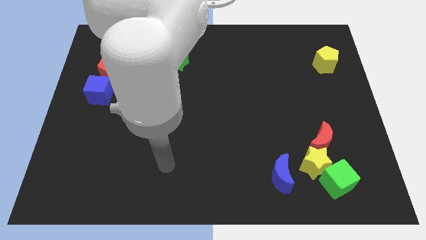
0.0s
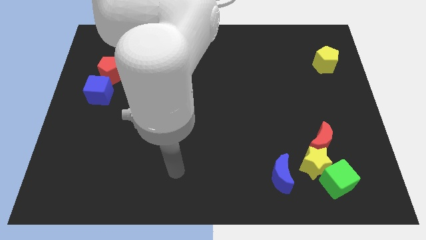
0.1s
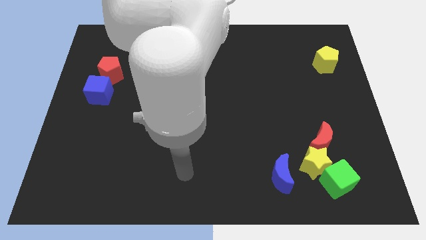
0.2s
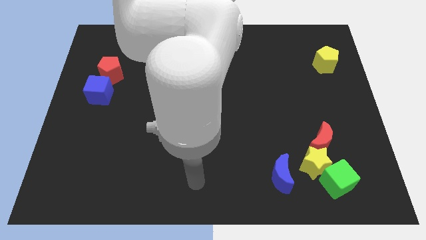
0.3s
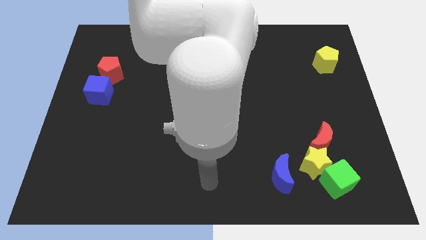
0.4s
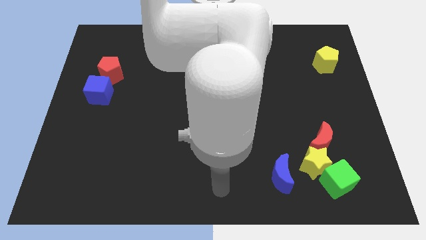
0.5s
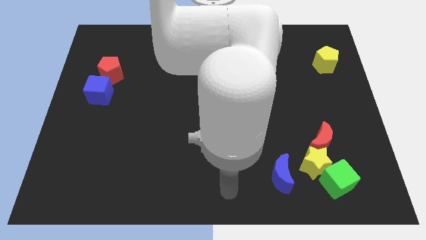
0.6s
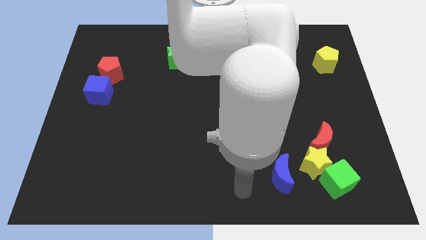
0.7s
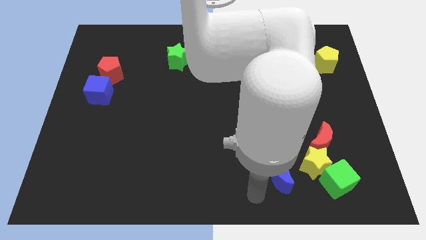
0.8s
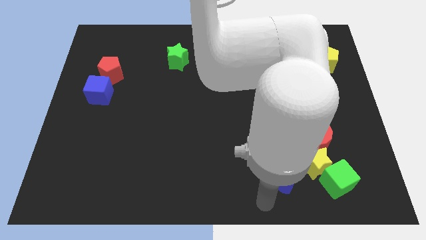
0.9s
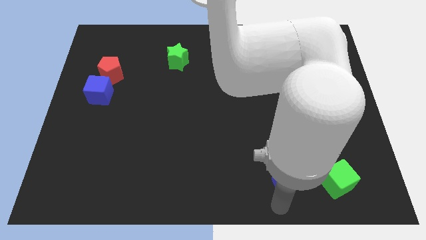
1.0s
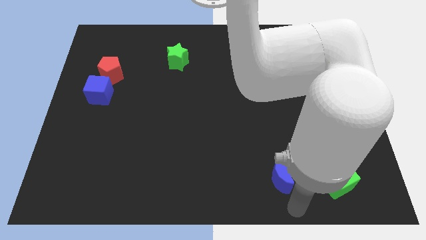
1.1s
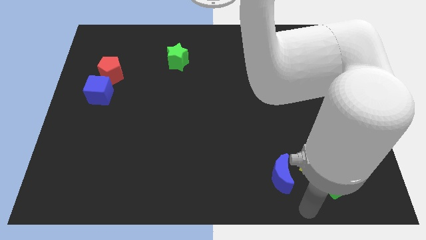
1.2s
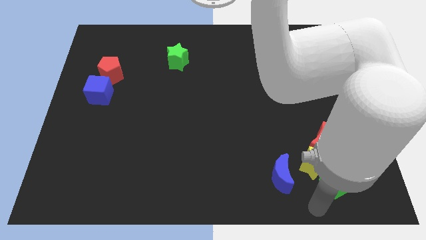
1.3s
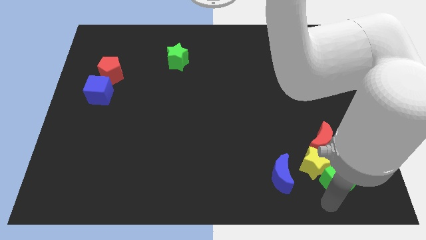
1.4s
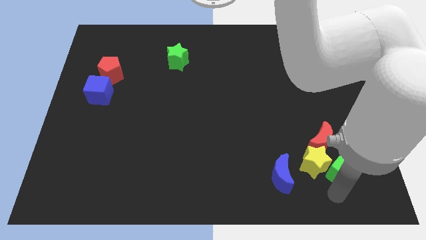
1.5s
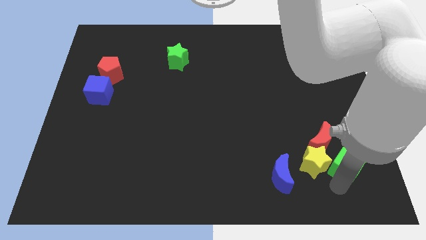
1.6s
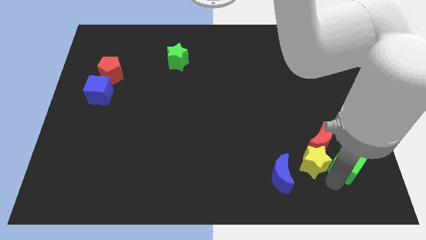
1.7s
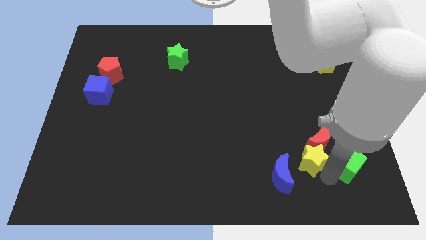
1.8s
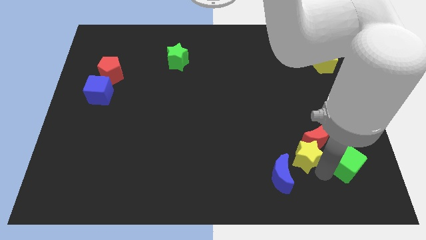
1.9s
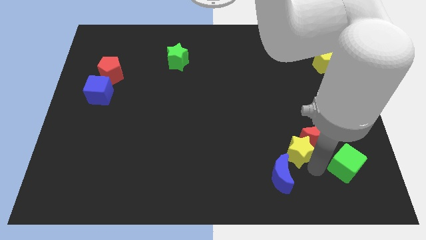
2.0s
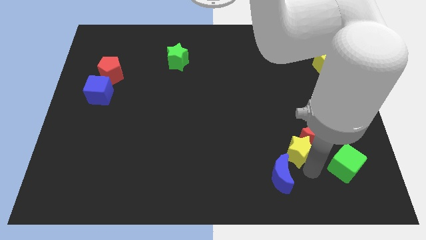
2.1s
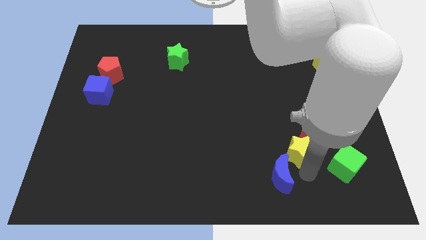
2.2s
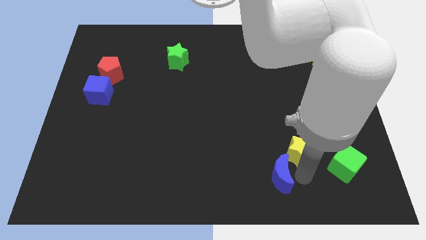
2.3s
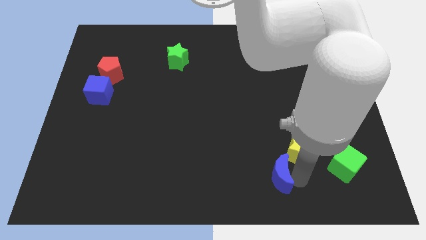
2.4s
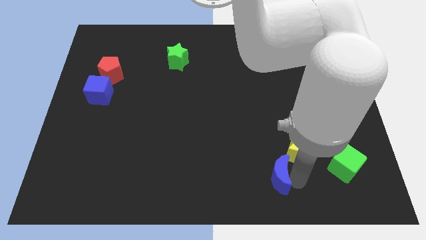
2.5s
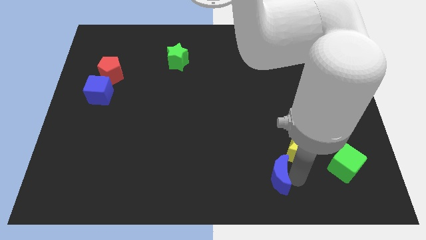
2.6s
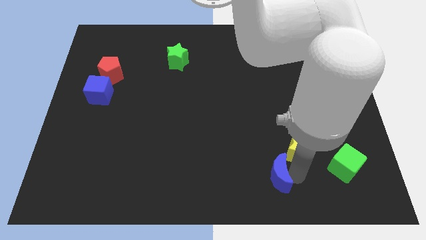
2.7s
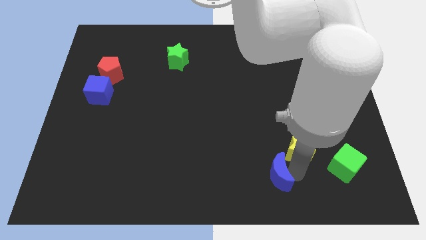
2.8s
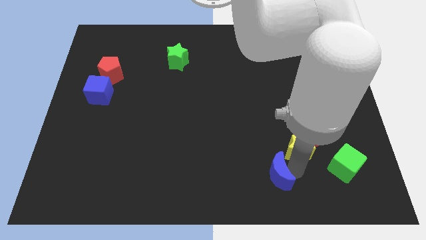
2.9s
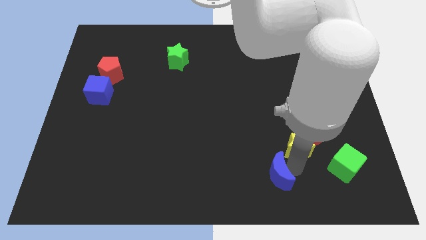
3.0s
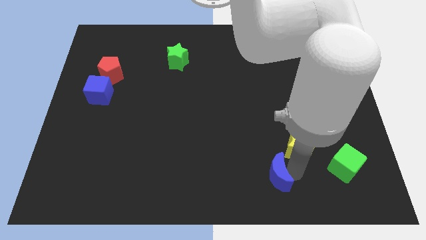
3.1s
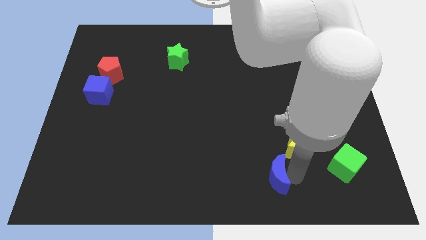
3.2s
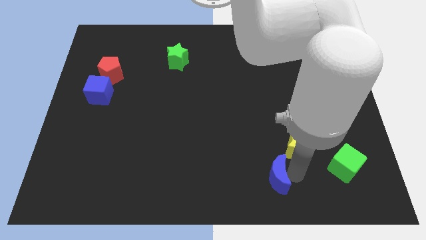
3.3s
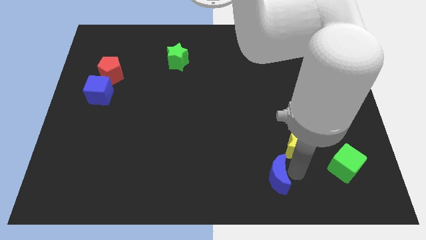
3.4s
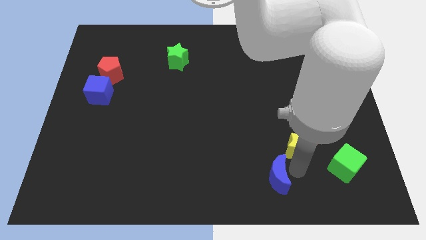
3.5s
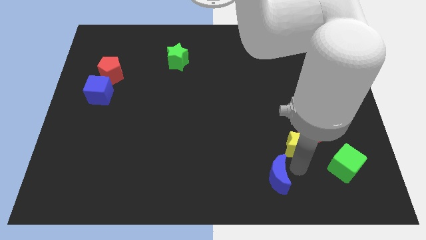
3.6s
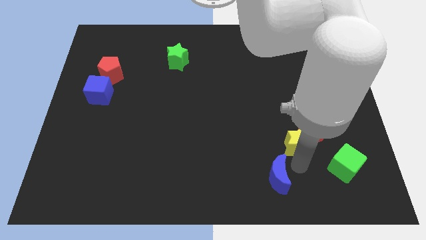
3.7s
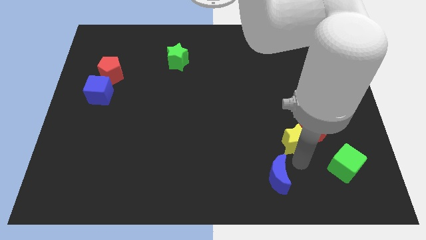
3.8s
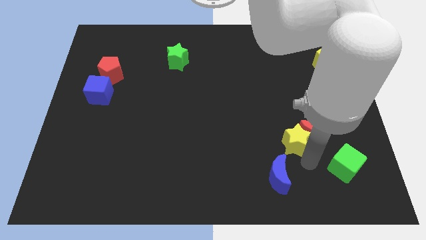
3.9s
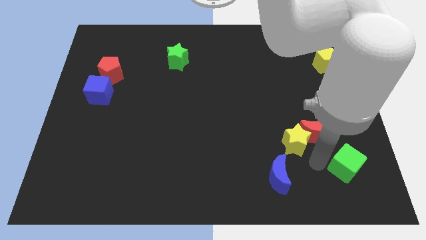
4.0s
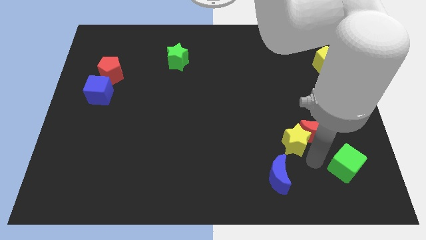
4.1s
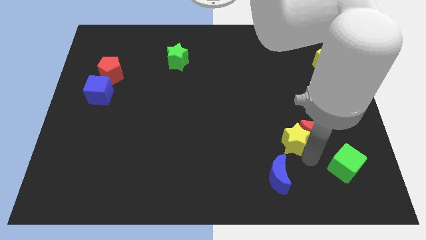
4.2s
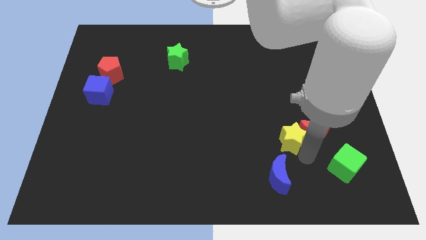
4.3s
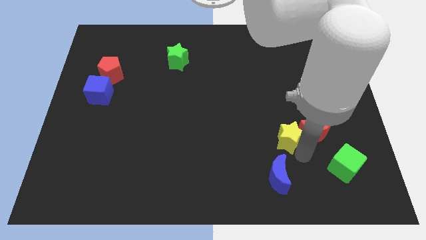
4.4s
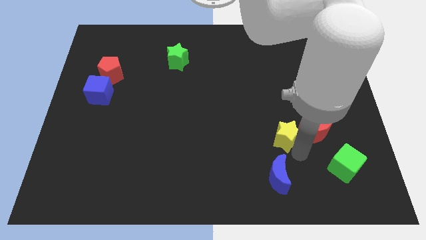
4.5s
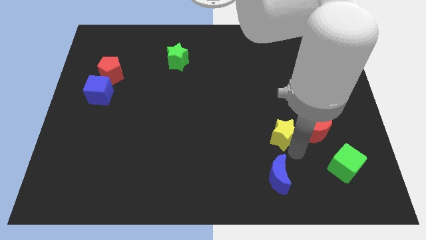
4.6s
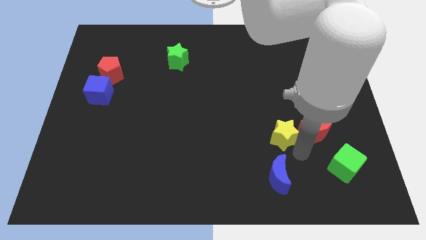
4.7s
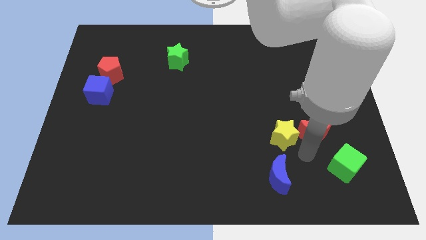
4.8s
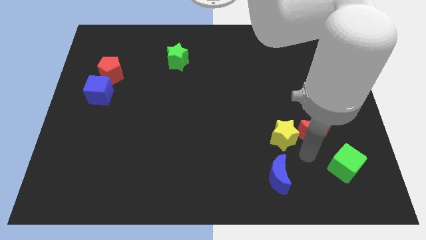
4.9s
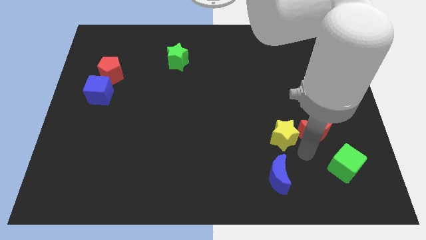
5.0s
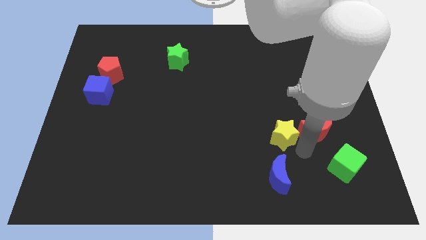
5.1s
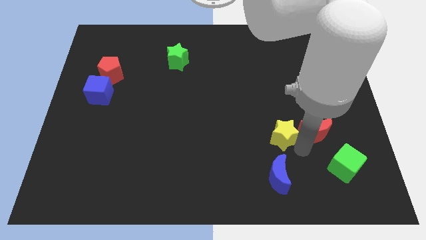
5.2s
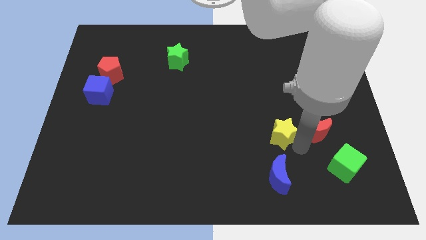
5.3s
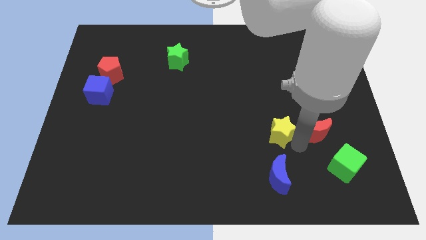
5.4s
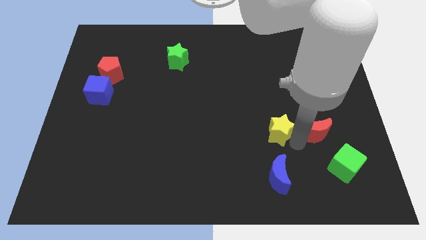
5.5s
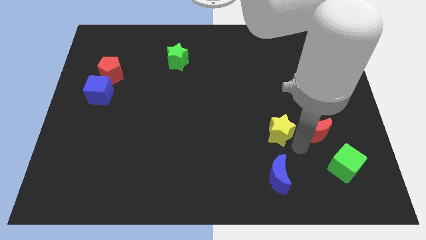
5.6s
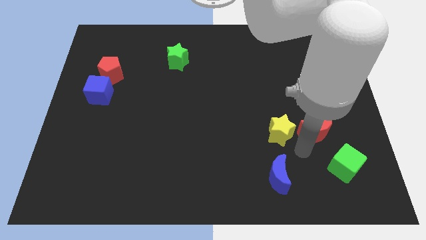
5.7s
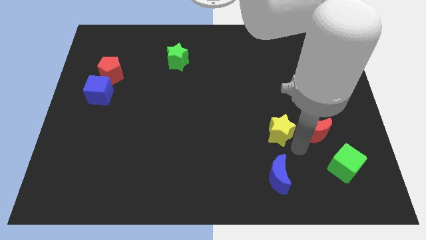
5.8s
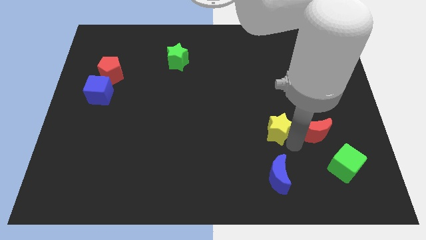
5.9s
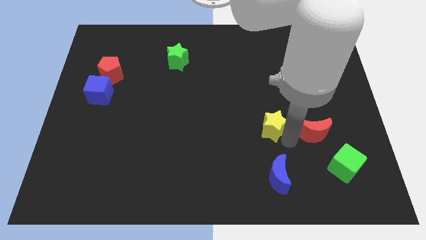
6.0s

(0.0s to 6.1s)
separate the yellow star from the group

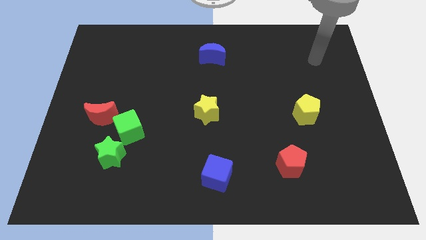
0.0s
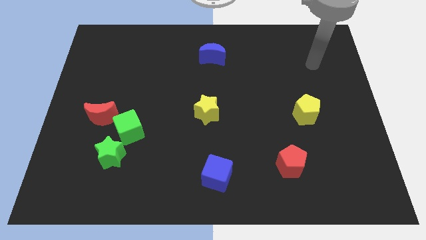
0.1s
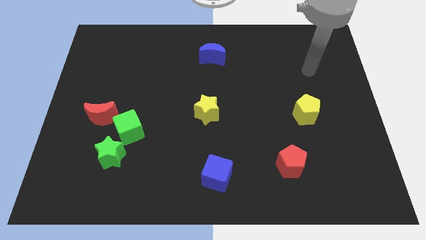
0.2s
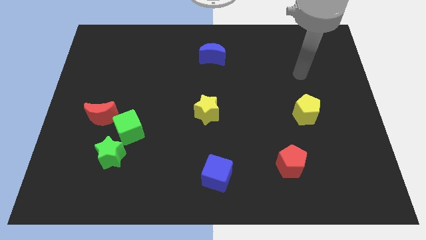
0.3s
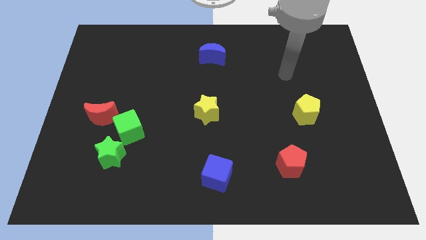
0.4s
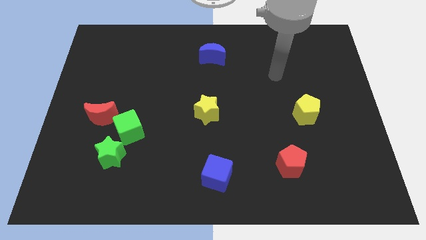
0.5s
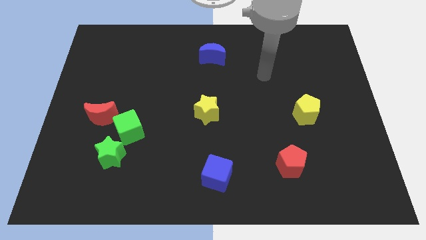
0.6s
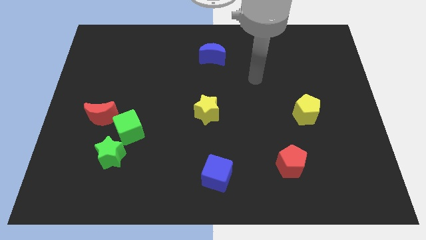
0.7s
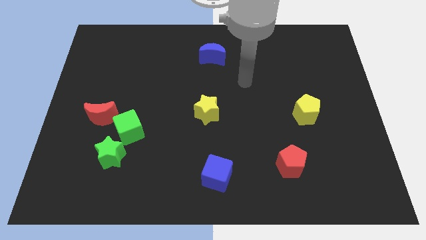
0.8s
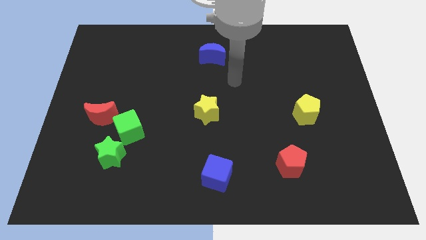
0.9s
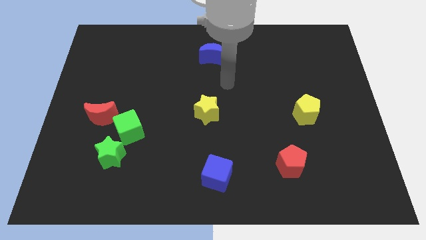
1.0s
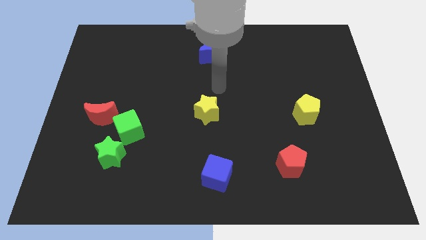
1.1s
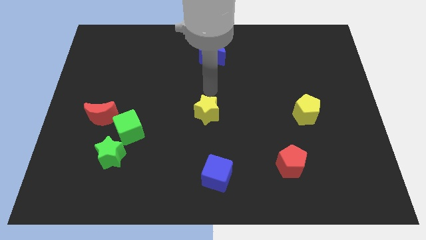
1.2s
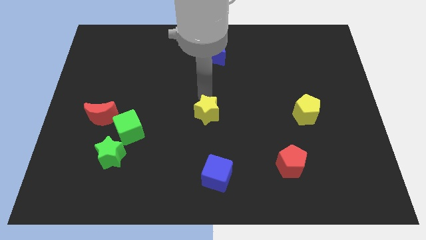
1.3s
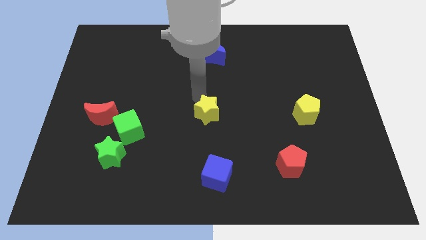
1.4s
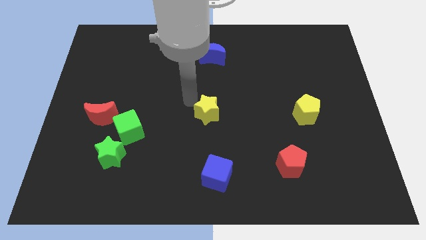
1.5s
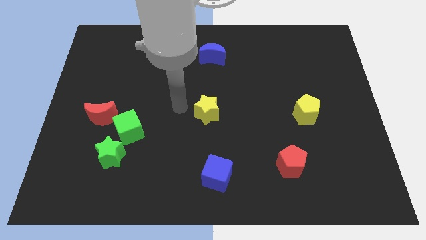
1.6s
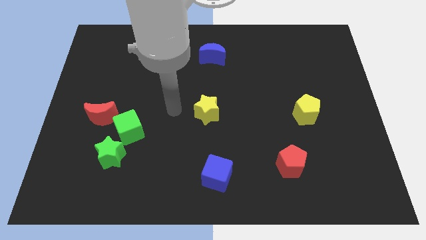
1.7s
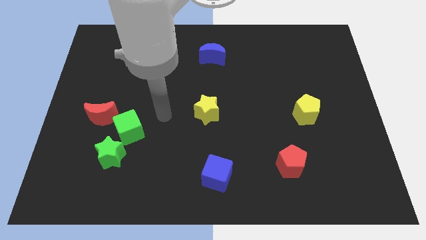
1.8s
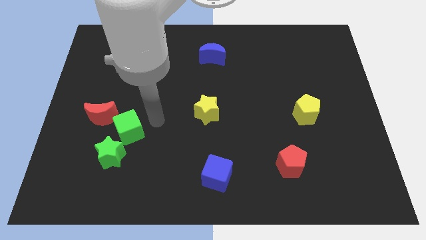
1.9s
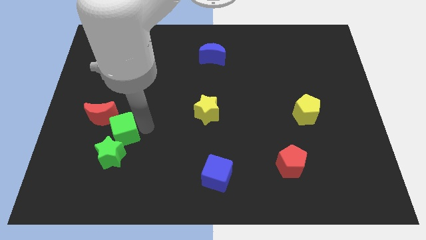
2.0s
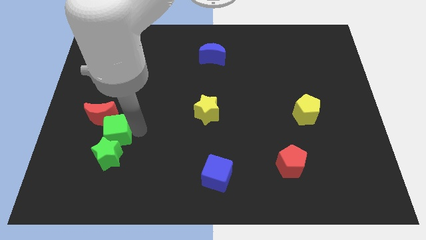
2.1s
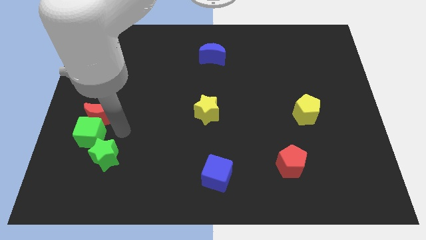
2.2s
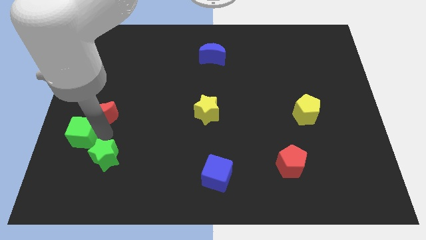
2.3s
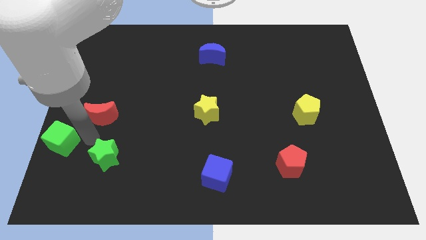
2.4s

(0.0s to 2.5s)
move the green star away from the green cube

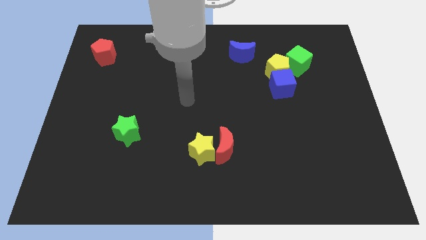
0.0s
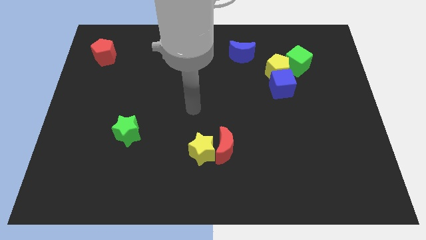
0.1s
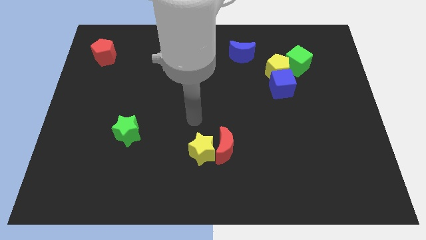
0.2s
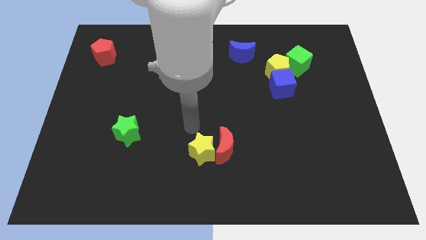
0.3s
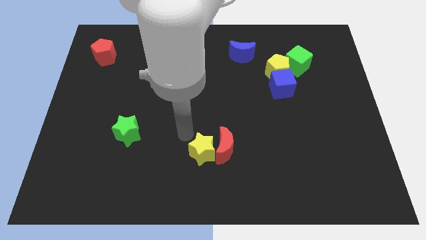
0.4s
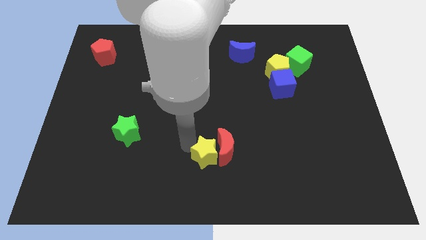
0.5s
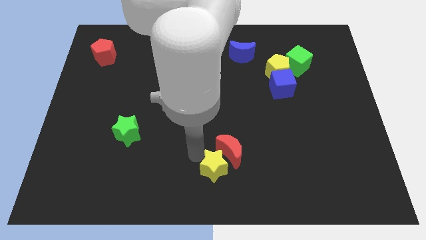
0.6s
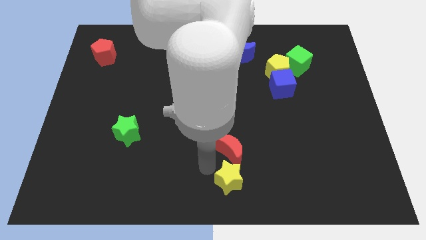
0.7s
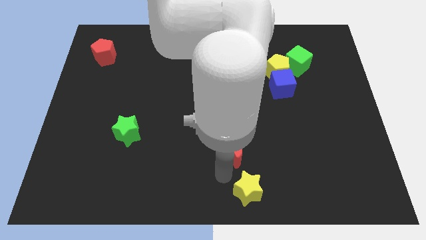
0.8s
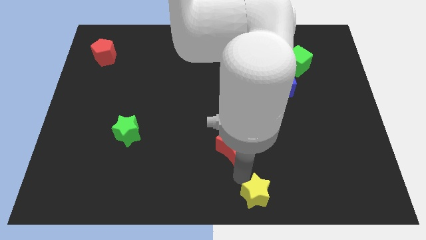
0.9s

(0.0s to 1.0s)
pull the red moon apart from the yellow star
